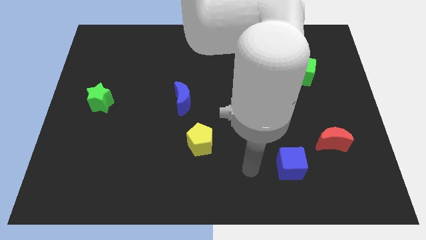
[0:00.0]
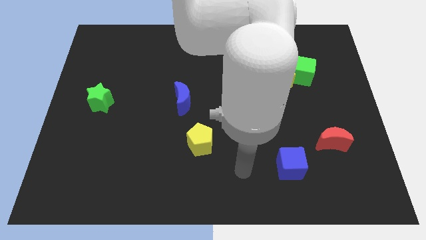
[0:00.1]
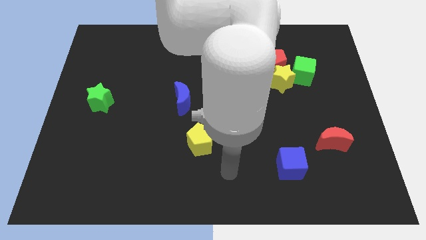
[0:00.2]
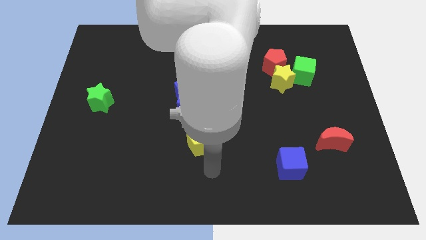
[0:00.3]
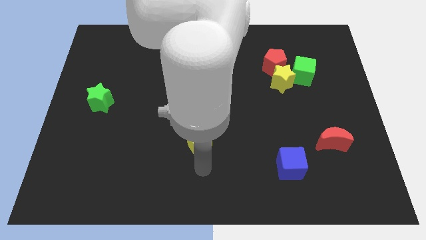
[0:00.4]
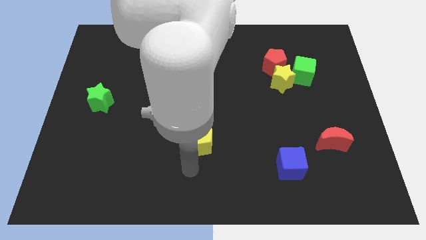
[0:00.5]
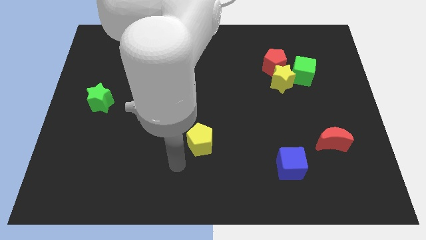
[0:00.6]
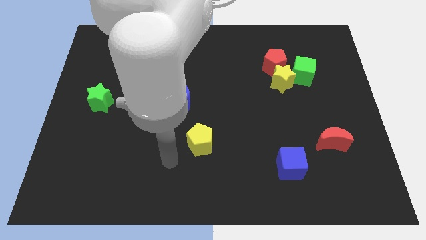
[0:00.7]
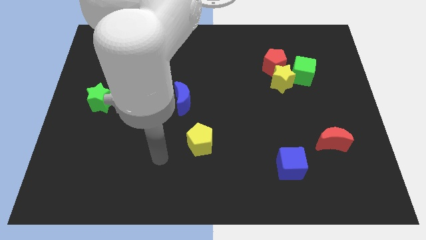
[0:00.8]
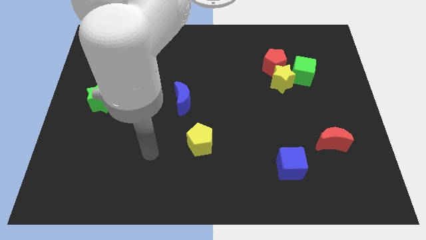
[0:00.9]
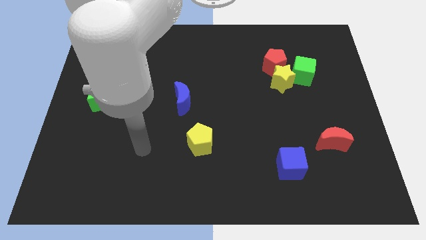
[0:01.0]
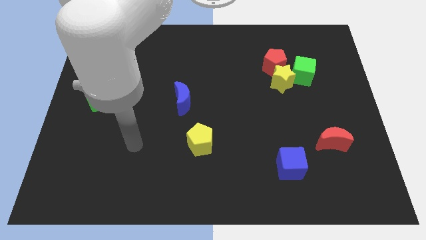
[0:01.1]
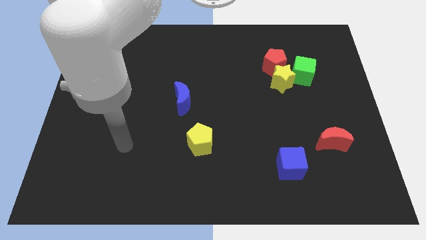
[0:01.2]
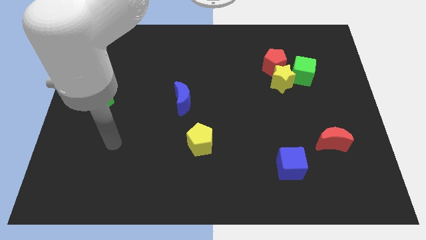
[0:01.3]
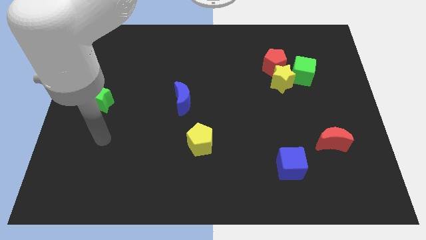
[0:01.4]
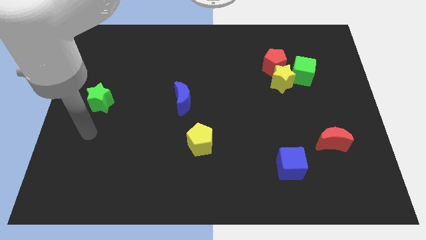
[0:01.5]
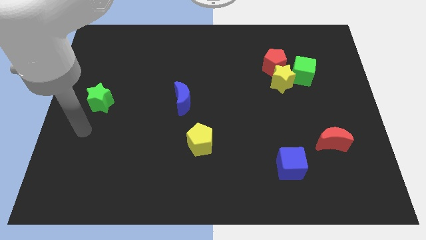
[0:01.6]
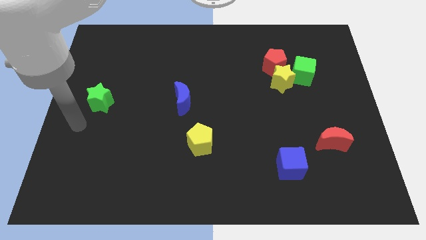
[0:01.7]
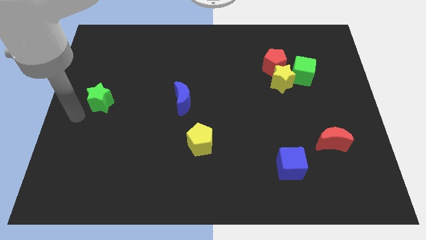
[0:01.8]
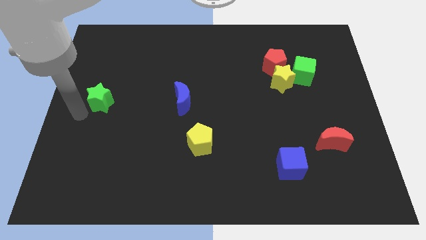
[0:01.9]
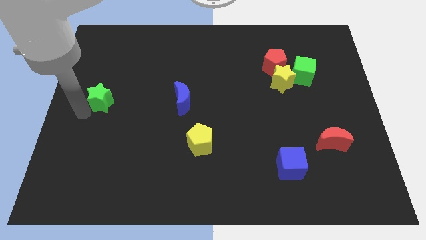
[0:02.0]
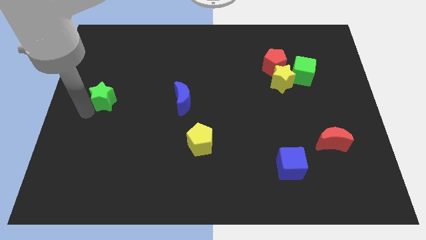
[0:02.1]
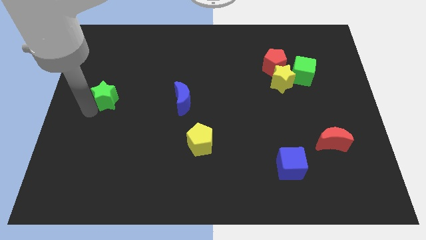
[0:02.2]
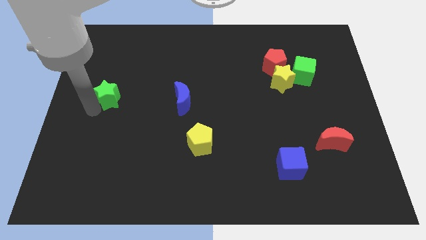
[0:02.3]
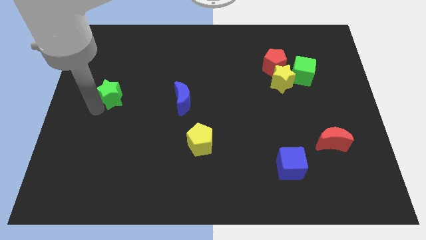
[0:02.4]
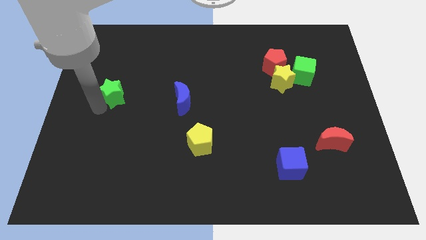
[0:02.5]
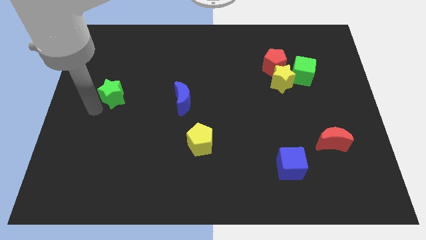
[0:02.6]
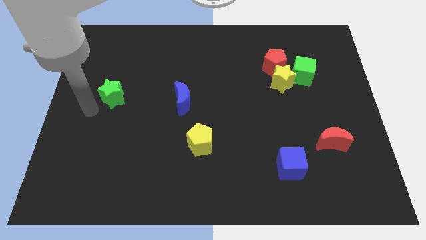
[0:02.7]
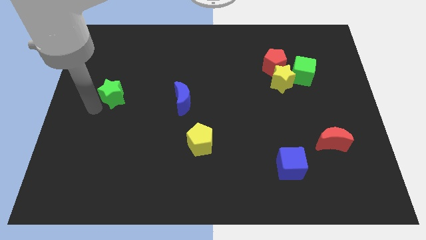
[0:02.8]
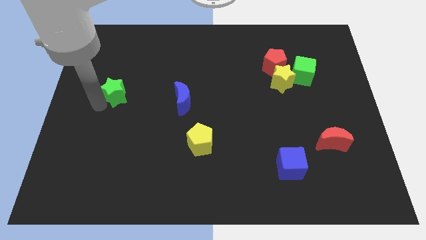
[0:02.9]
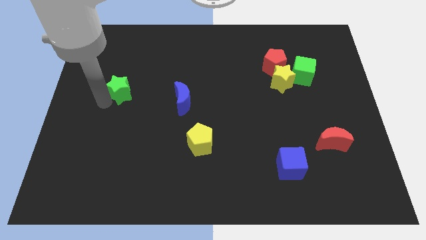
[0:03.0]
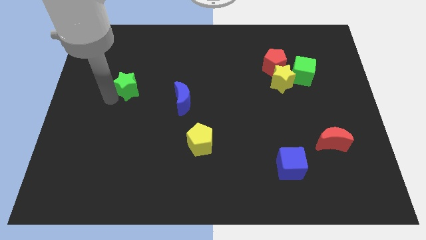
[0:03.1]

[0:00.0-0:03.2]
slightly move the green star up and right diagonally

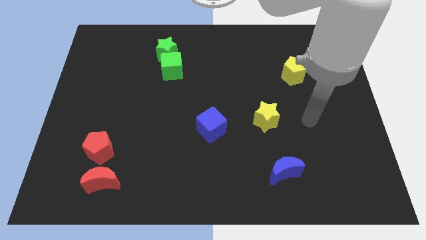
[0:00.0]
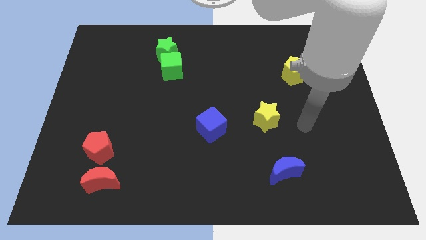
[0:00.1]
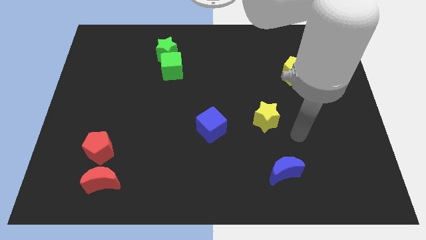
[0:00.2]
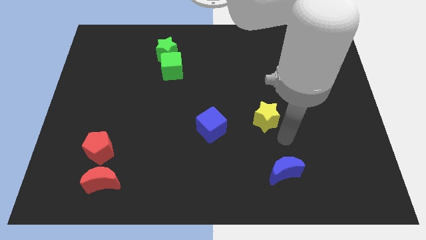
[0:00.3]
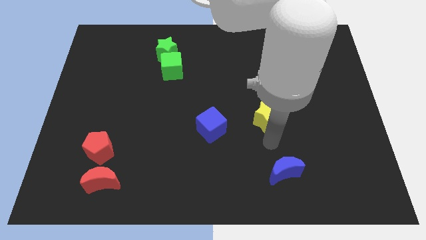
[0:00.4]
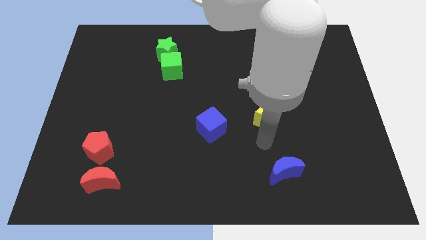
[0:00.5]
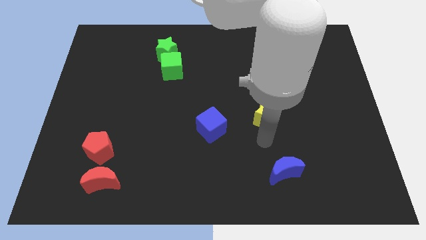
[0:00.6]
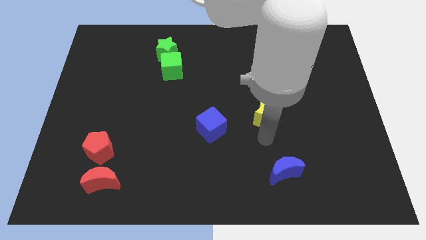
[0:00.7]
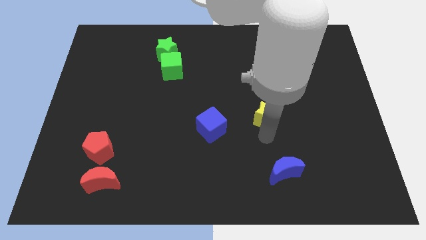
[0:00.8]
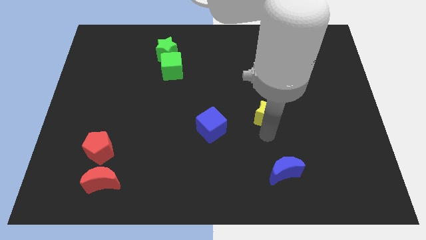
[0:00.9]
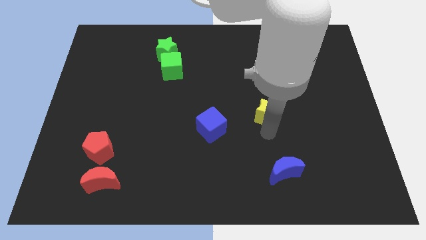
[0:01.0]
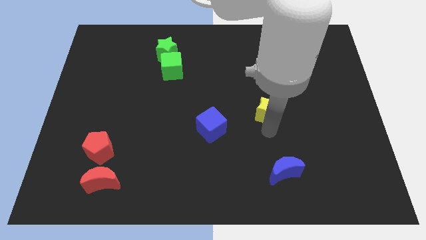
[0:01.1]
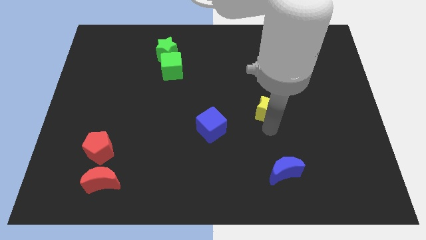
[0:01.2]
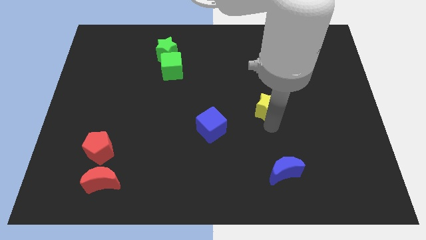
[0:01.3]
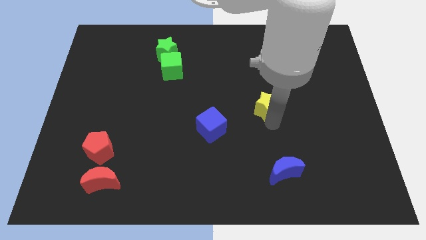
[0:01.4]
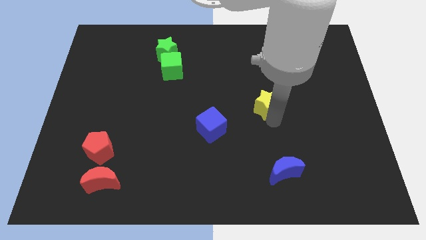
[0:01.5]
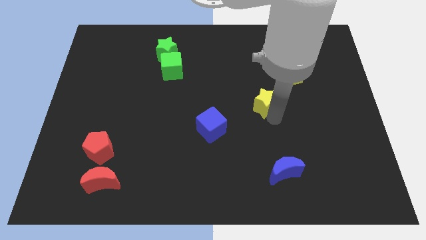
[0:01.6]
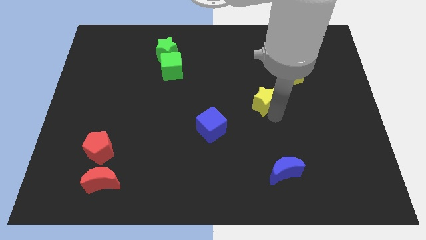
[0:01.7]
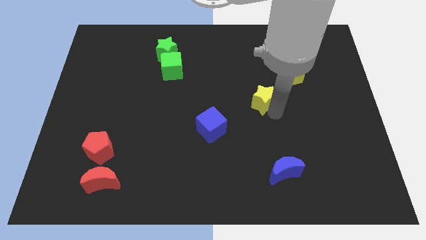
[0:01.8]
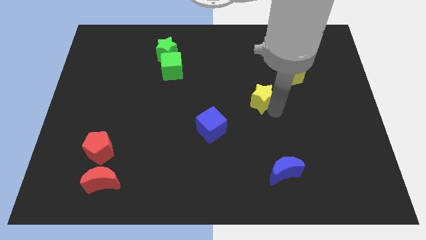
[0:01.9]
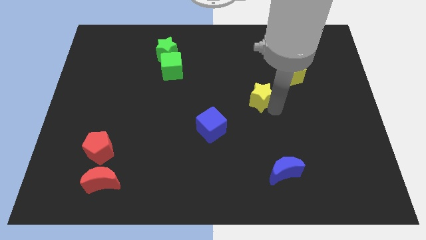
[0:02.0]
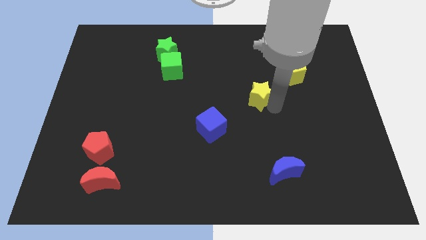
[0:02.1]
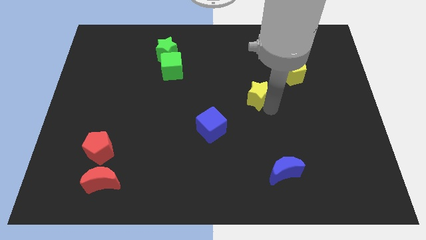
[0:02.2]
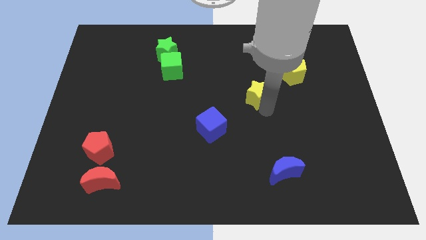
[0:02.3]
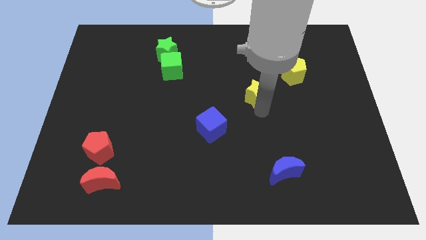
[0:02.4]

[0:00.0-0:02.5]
slide the yellow star slightly up

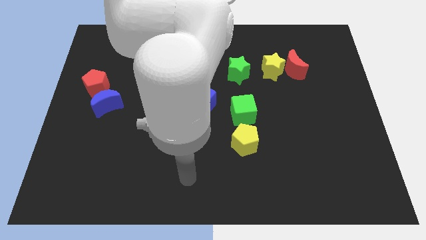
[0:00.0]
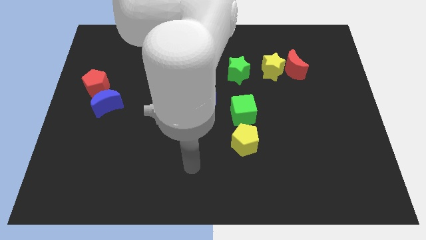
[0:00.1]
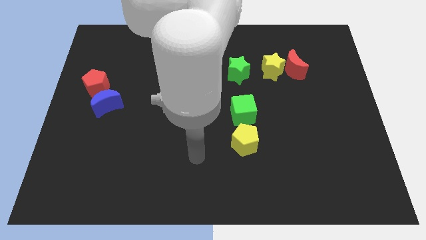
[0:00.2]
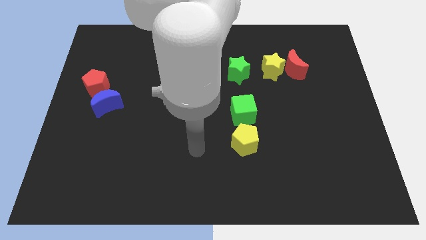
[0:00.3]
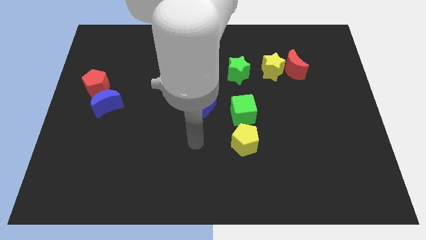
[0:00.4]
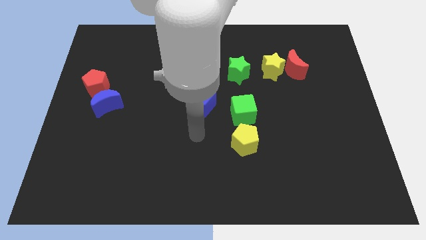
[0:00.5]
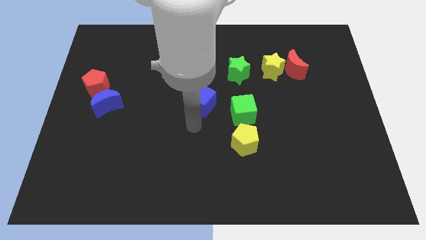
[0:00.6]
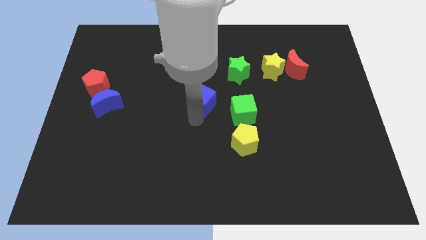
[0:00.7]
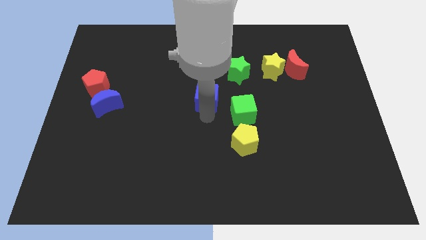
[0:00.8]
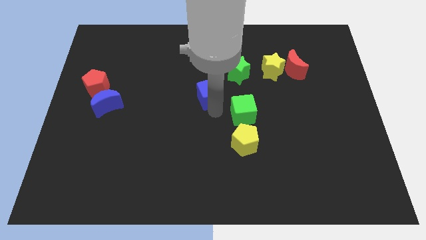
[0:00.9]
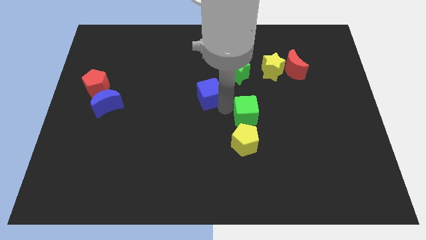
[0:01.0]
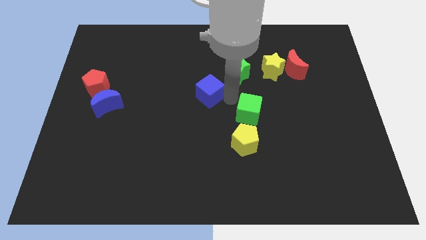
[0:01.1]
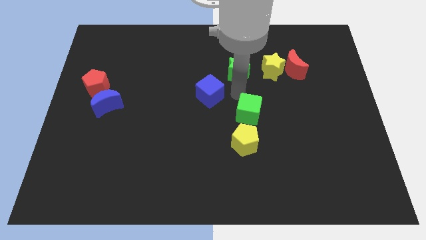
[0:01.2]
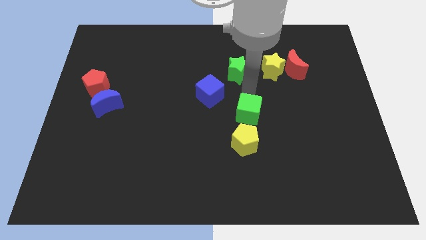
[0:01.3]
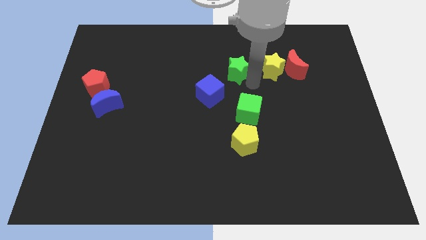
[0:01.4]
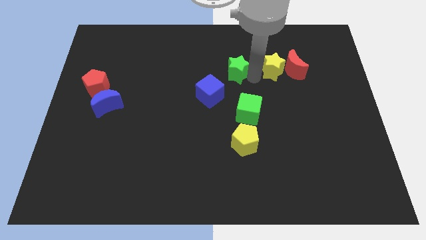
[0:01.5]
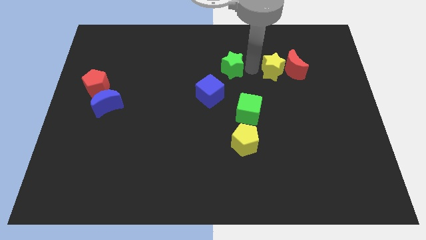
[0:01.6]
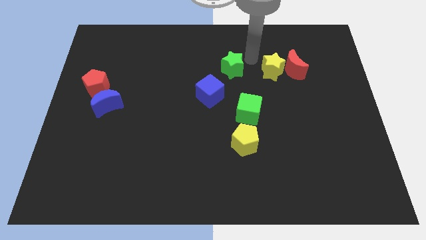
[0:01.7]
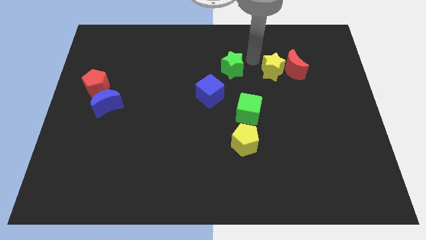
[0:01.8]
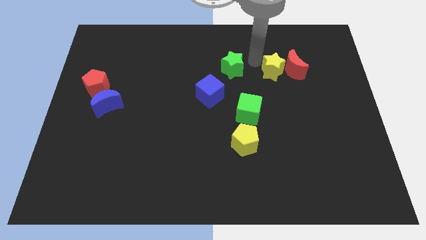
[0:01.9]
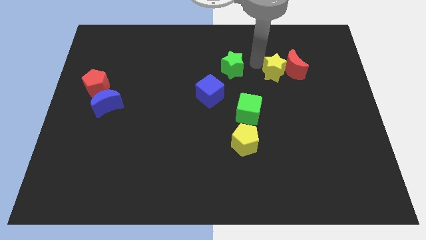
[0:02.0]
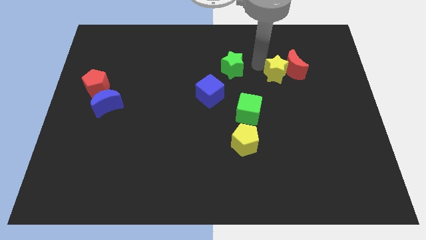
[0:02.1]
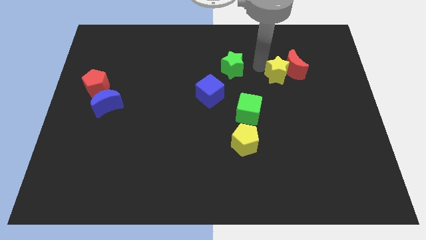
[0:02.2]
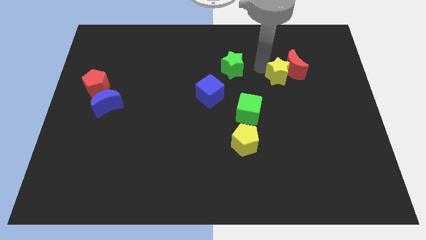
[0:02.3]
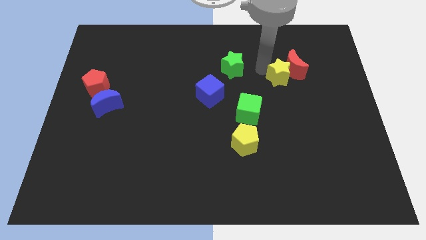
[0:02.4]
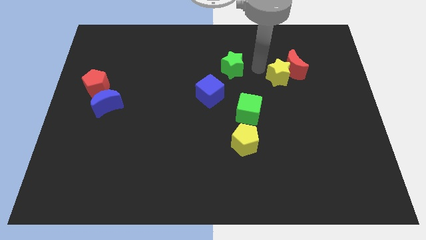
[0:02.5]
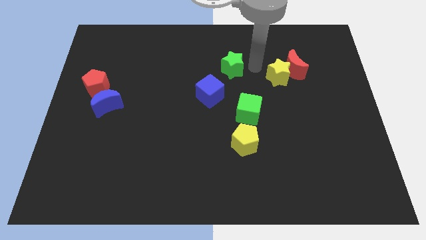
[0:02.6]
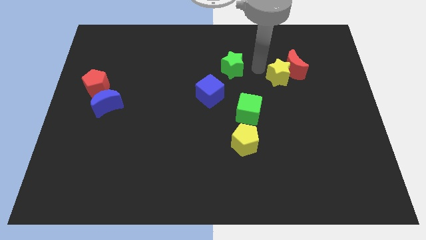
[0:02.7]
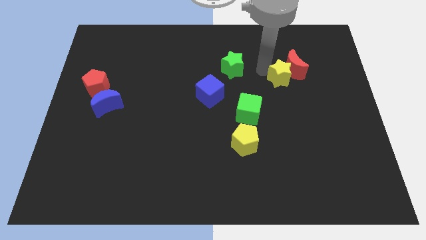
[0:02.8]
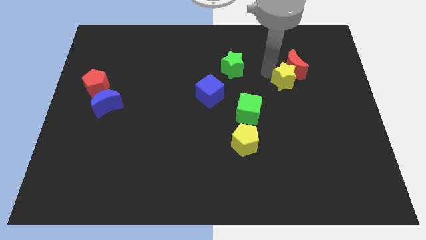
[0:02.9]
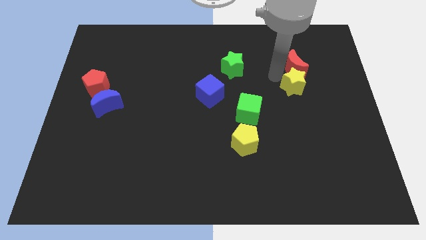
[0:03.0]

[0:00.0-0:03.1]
move the yellow star downwards and right slightly
